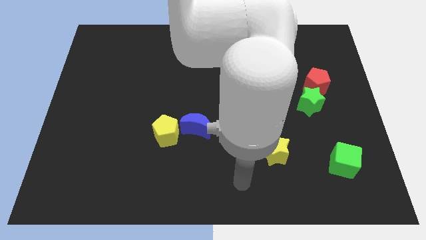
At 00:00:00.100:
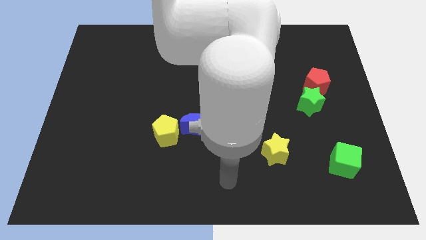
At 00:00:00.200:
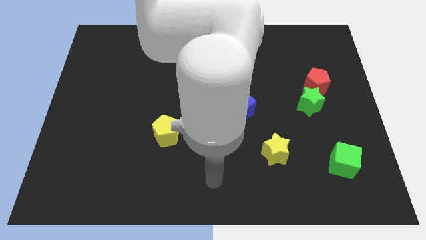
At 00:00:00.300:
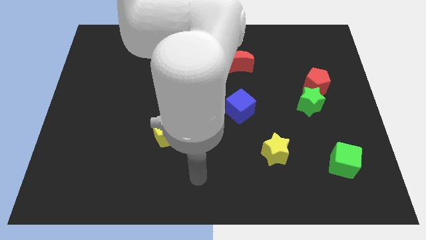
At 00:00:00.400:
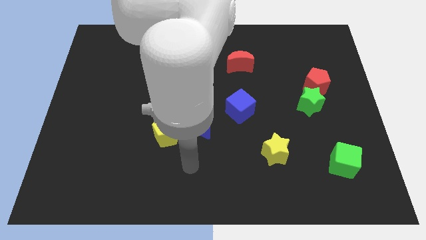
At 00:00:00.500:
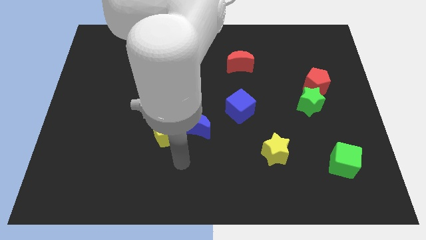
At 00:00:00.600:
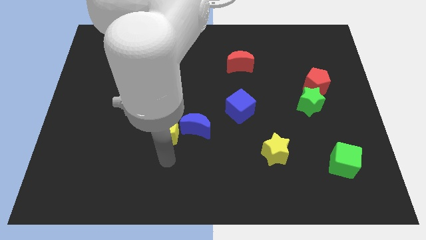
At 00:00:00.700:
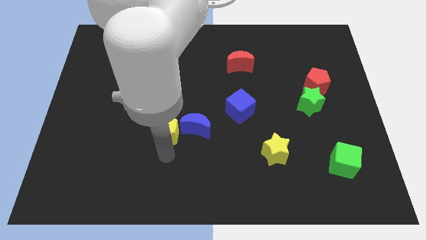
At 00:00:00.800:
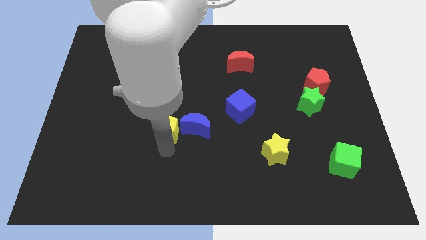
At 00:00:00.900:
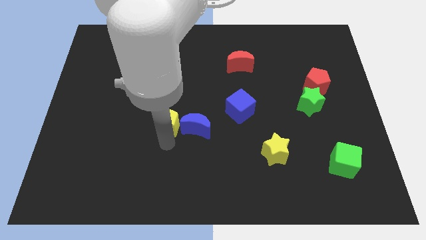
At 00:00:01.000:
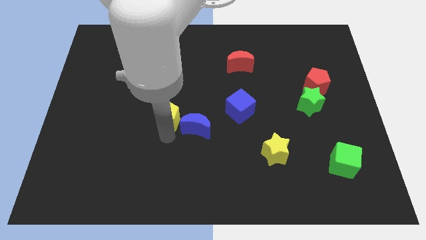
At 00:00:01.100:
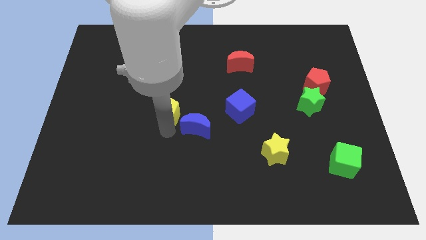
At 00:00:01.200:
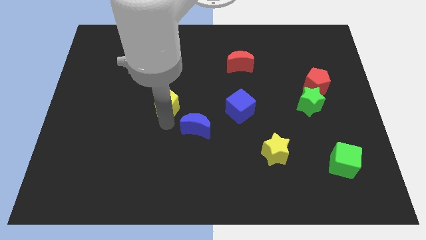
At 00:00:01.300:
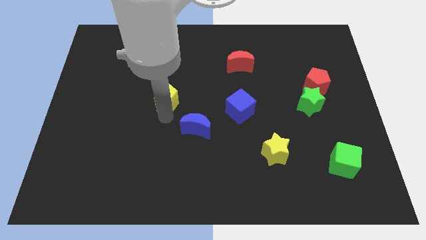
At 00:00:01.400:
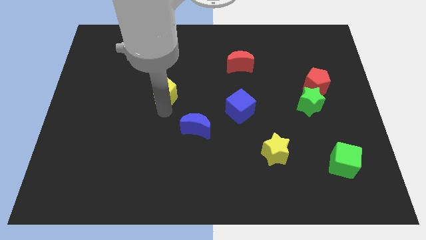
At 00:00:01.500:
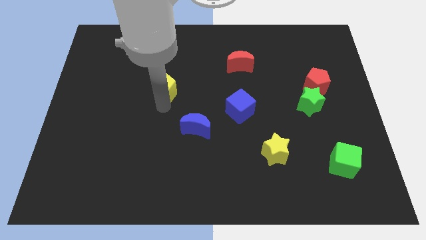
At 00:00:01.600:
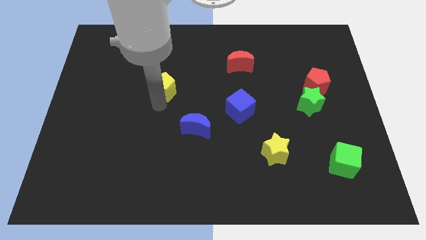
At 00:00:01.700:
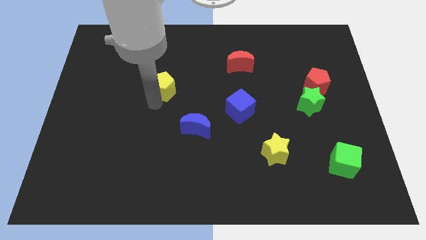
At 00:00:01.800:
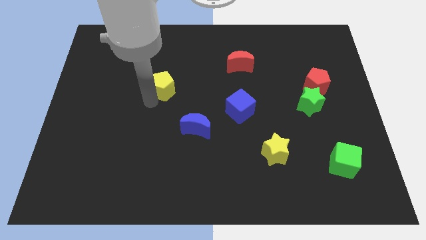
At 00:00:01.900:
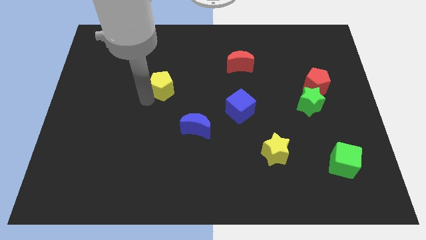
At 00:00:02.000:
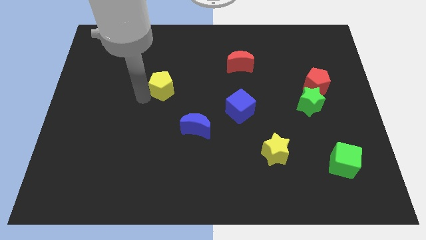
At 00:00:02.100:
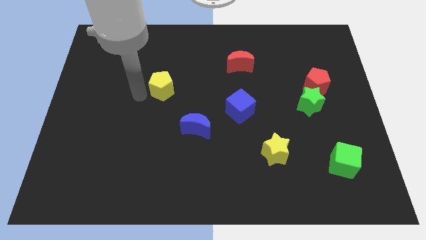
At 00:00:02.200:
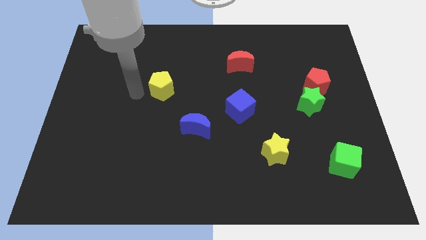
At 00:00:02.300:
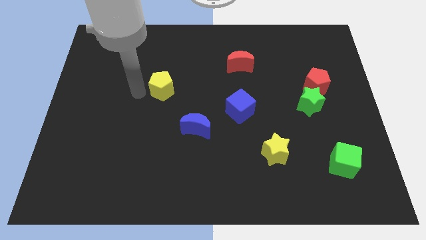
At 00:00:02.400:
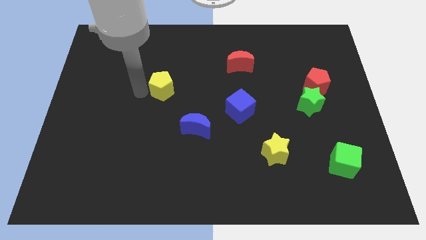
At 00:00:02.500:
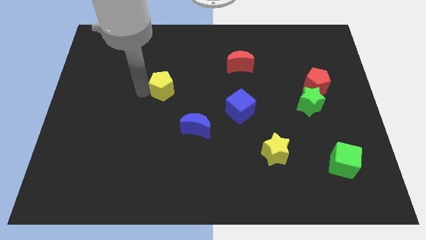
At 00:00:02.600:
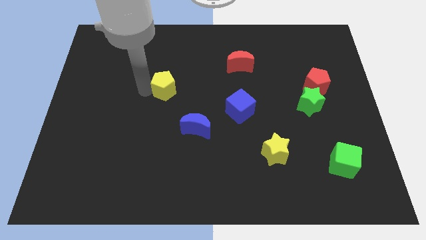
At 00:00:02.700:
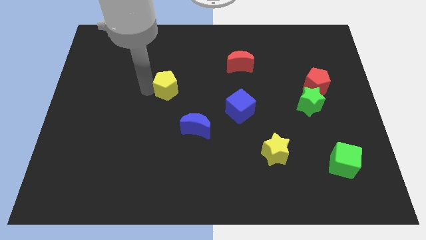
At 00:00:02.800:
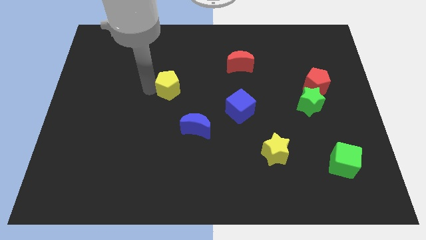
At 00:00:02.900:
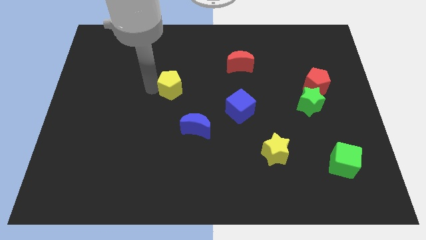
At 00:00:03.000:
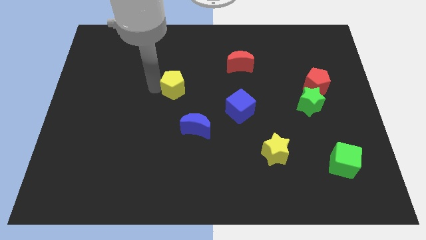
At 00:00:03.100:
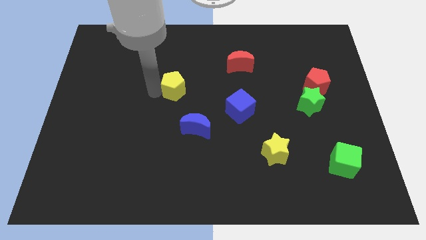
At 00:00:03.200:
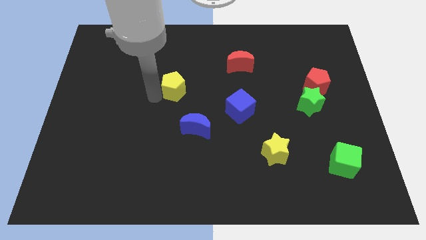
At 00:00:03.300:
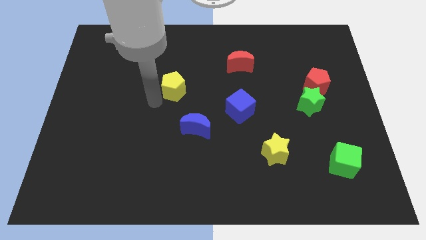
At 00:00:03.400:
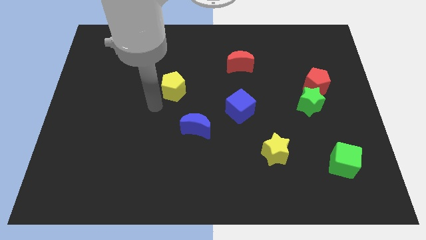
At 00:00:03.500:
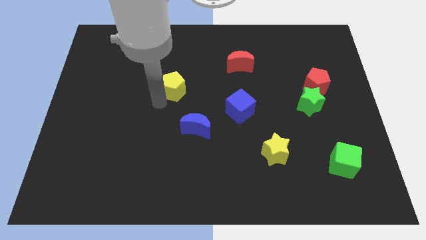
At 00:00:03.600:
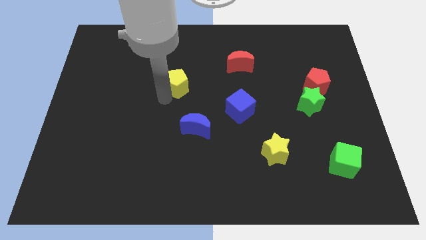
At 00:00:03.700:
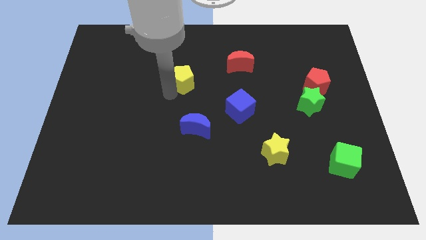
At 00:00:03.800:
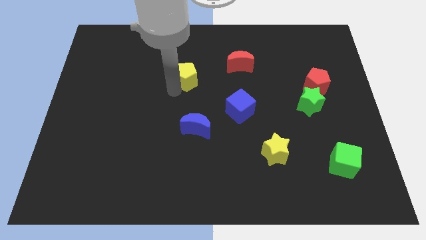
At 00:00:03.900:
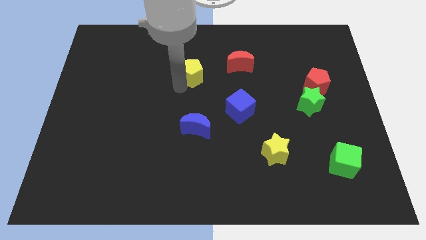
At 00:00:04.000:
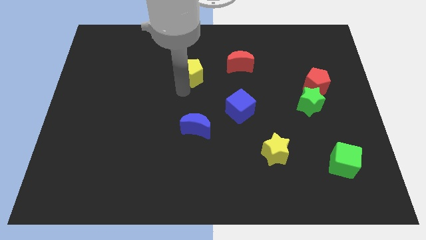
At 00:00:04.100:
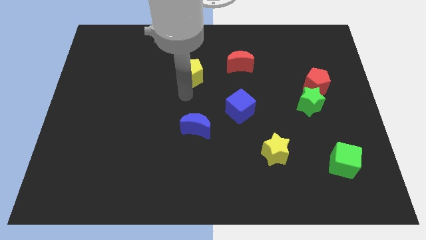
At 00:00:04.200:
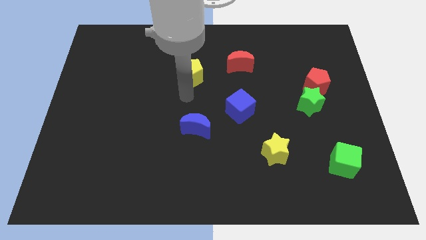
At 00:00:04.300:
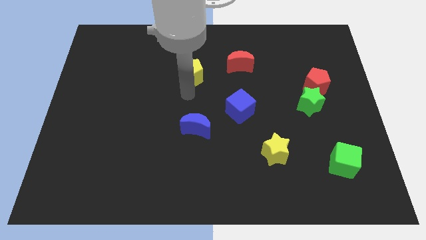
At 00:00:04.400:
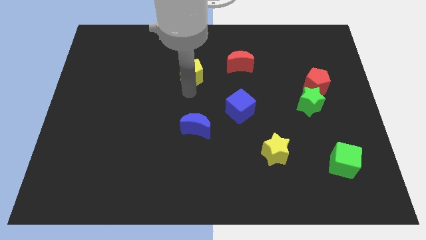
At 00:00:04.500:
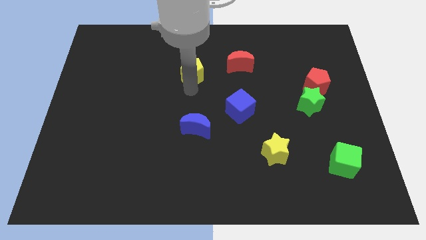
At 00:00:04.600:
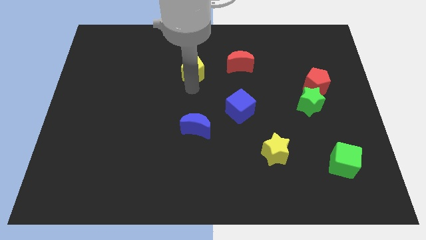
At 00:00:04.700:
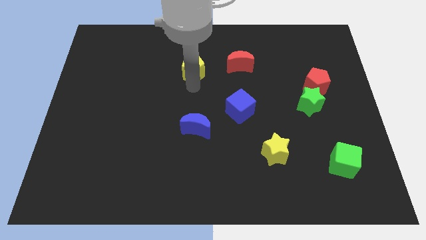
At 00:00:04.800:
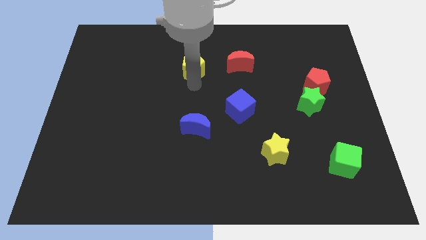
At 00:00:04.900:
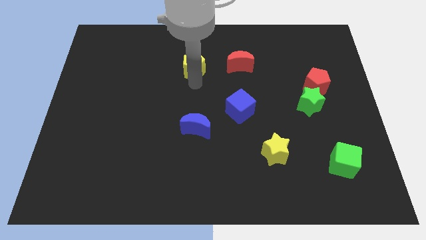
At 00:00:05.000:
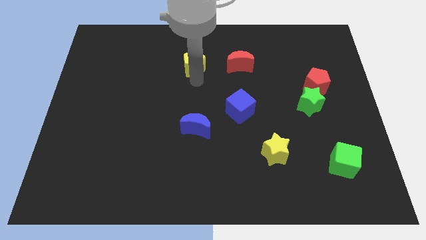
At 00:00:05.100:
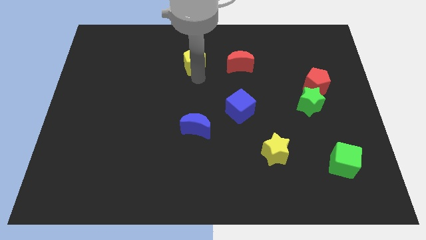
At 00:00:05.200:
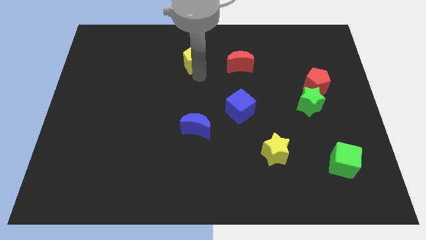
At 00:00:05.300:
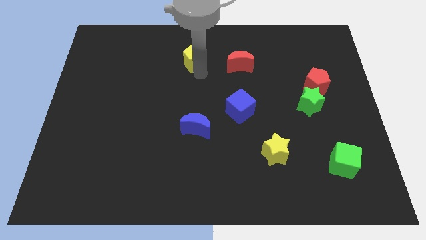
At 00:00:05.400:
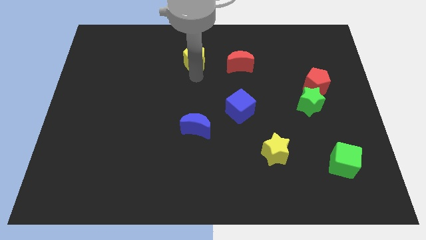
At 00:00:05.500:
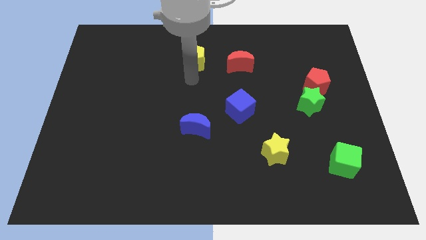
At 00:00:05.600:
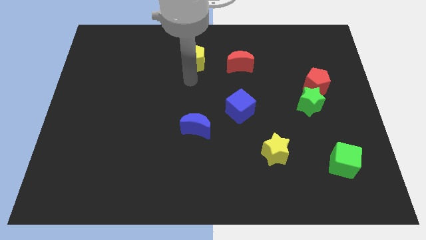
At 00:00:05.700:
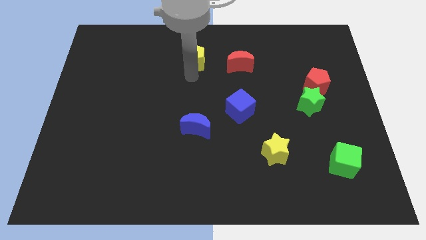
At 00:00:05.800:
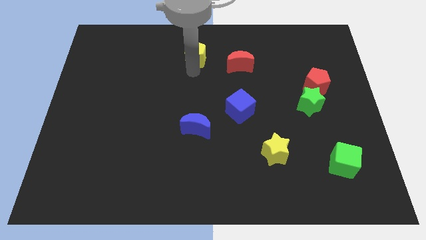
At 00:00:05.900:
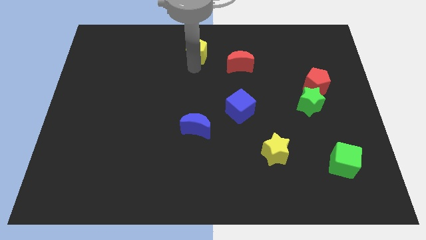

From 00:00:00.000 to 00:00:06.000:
put the yellow pentagon to the top side
